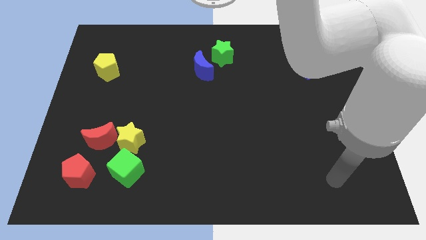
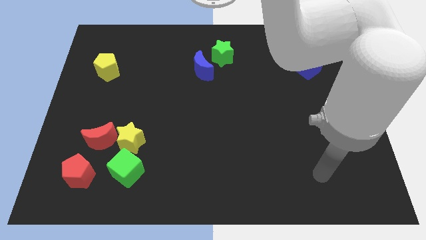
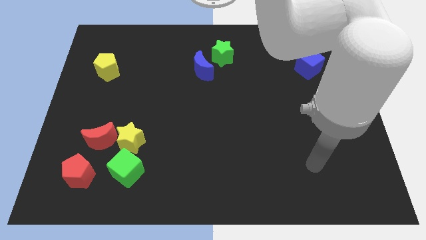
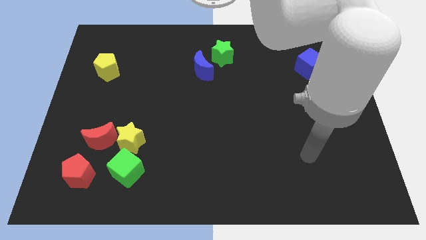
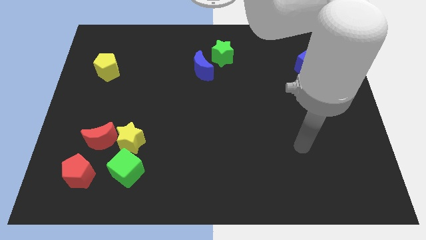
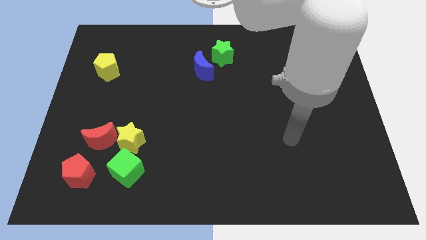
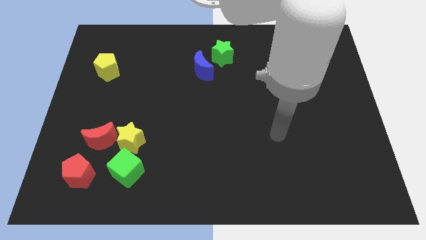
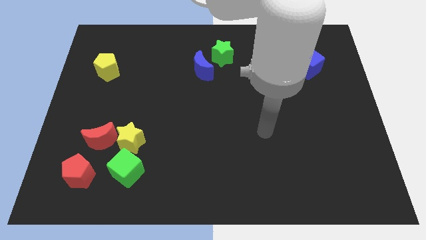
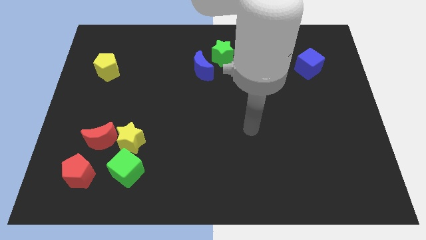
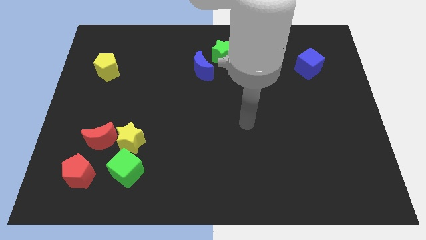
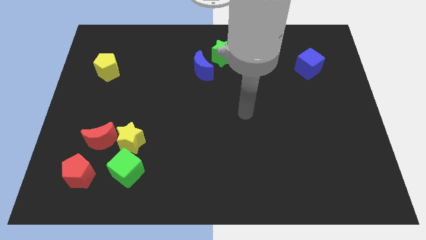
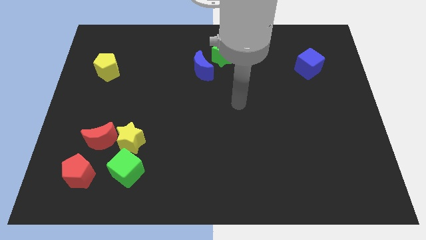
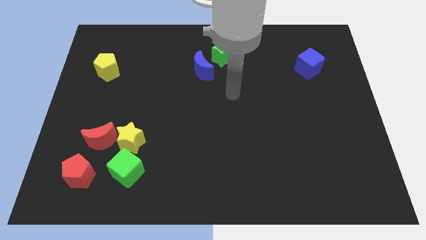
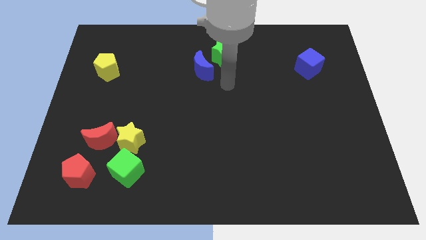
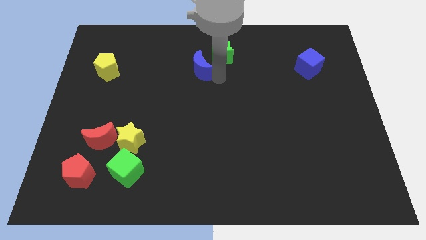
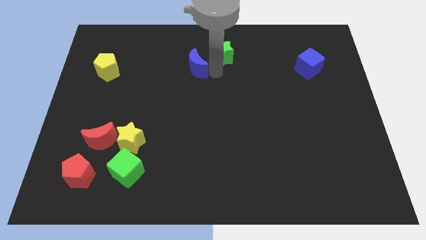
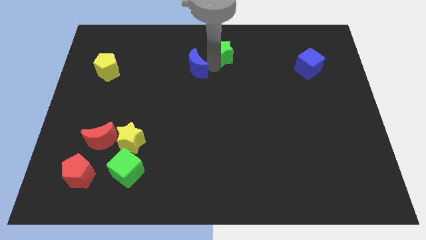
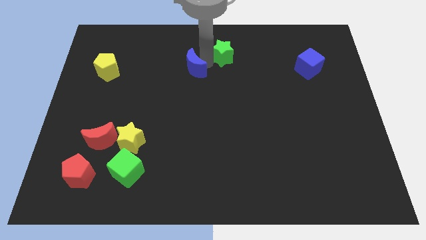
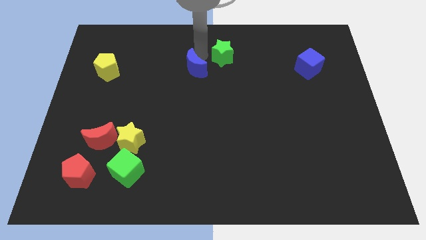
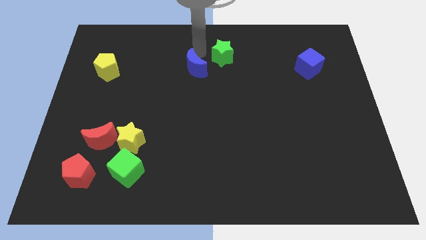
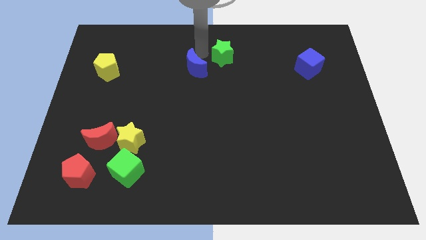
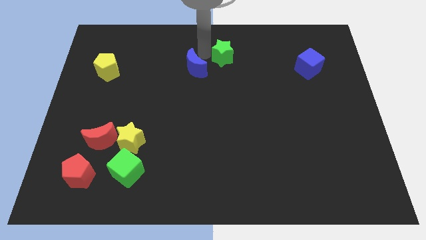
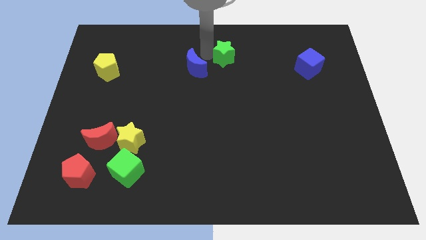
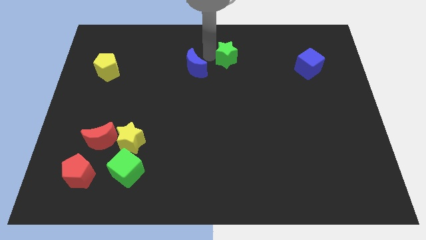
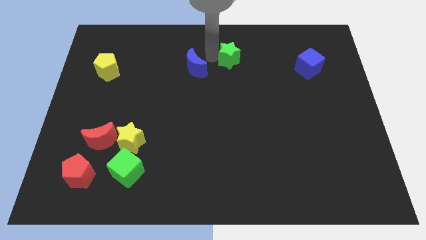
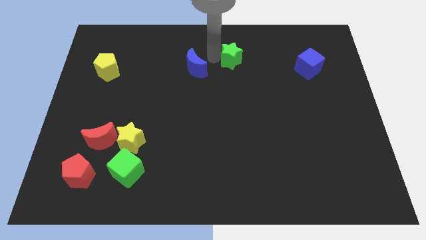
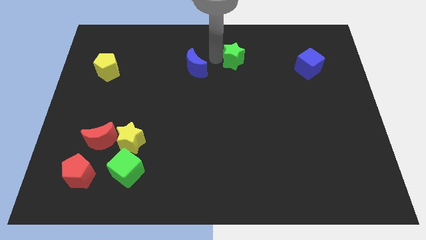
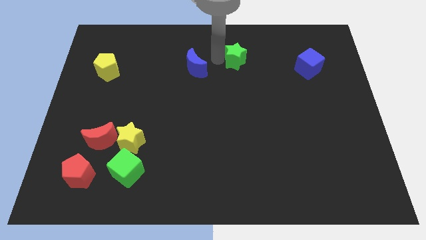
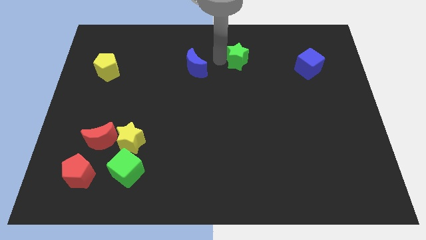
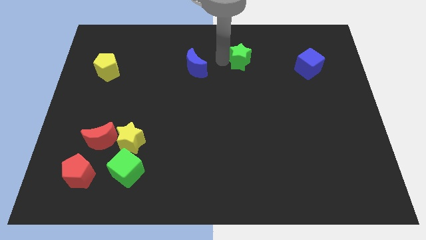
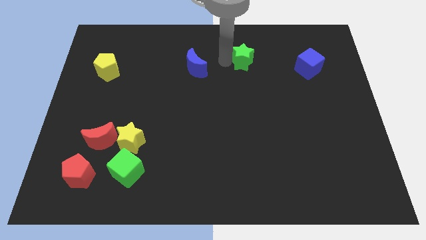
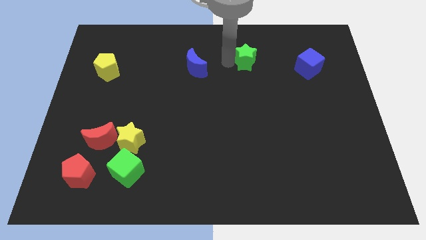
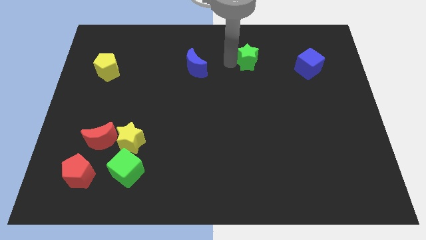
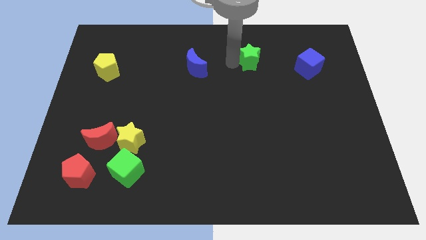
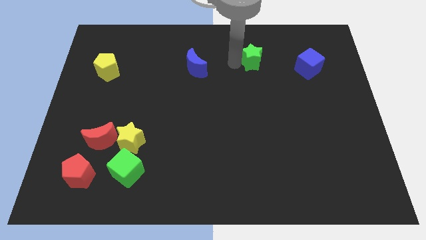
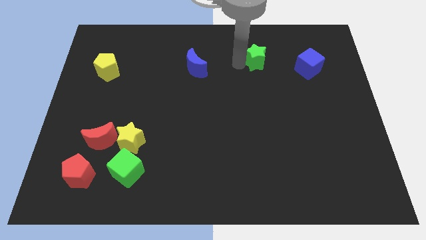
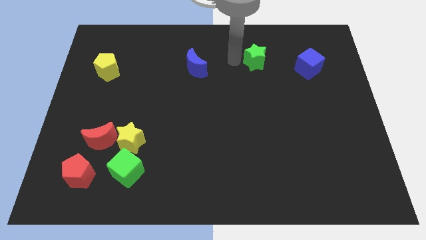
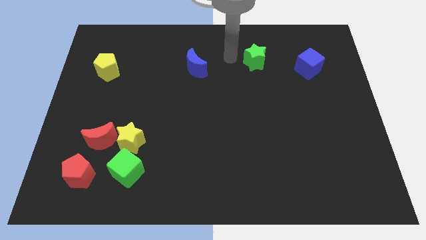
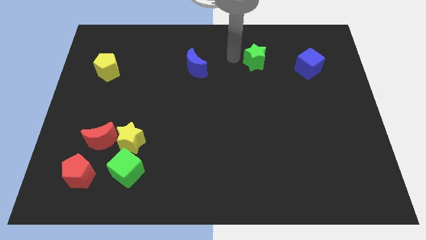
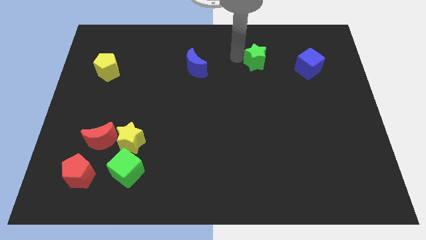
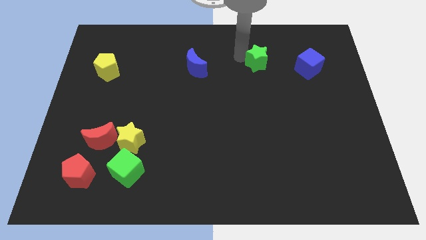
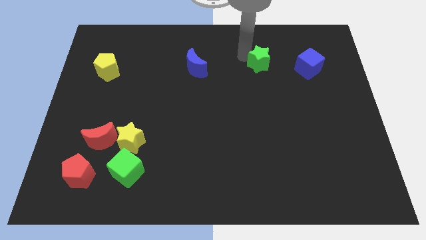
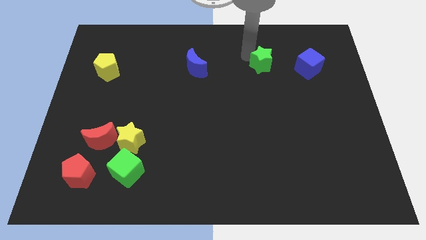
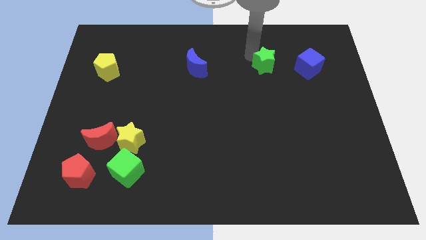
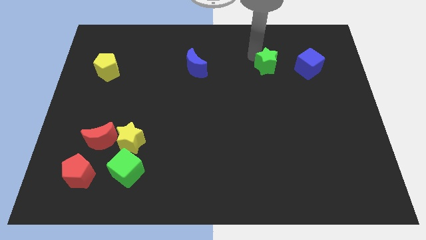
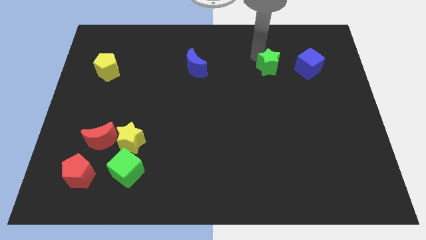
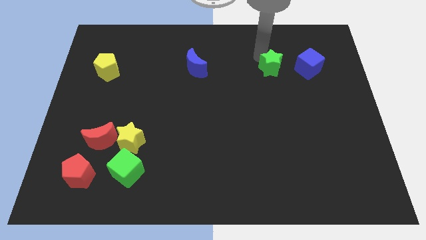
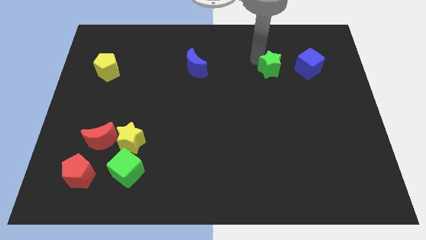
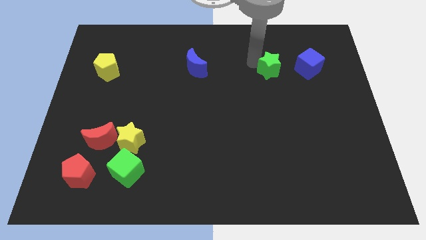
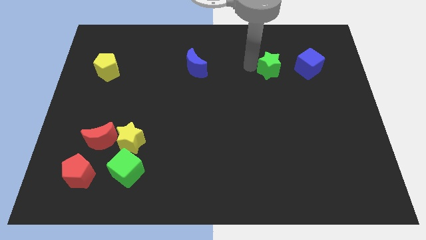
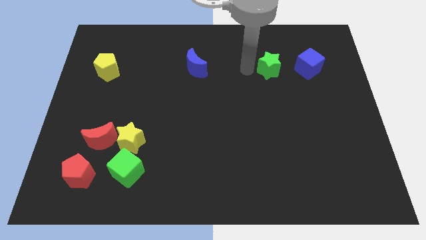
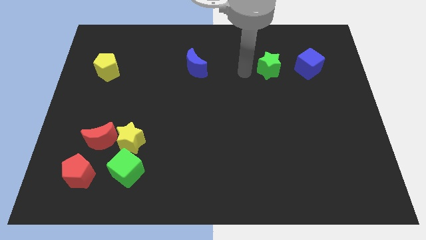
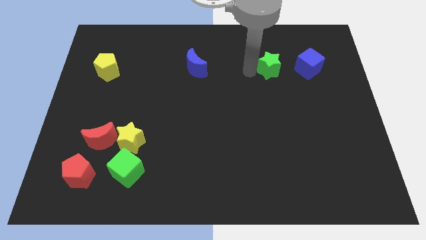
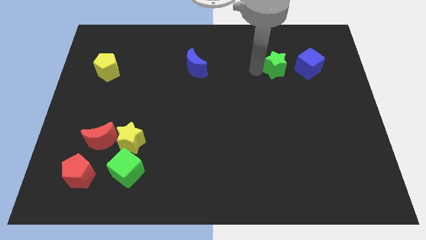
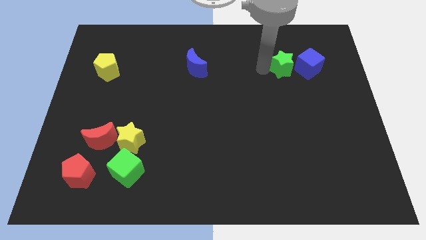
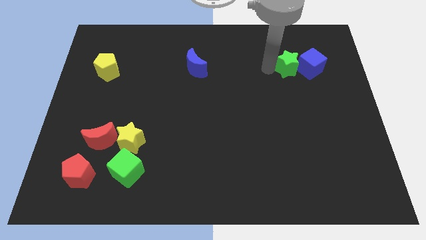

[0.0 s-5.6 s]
put the green star to the blue cube

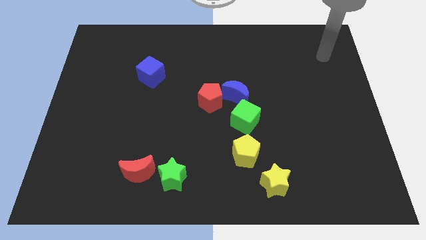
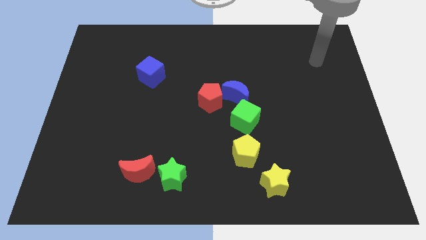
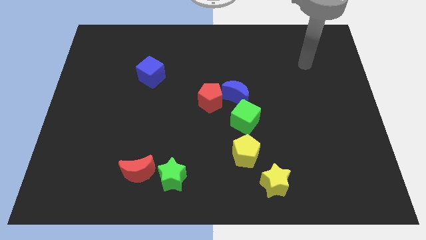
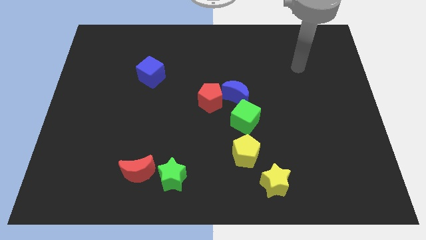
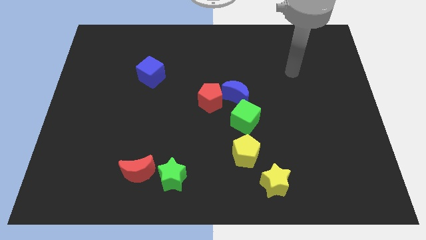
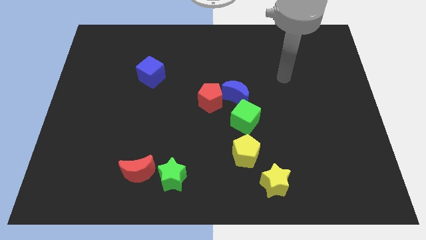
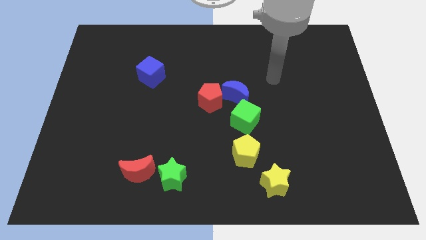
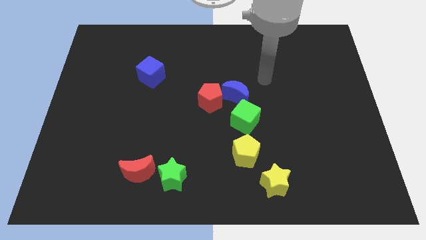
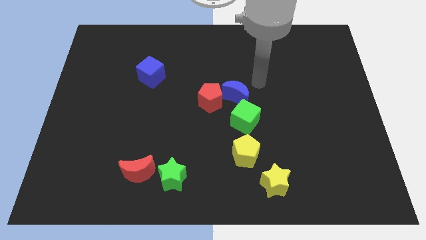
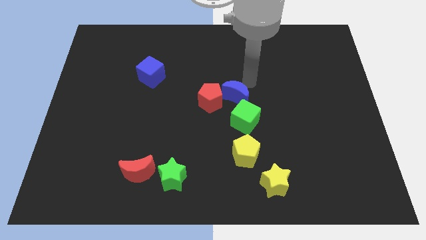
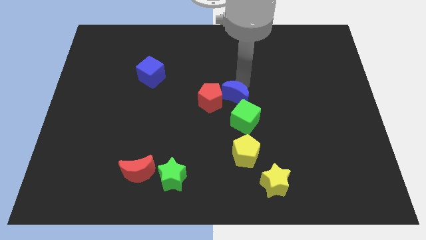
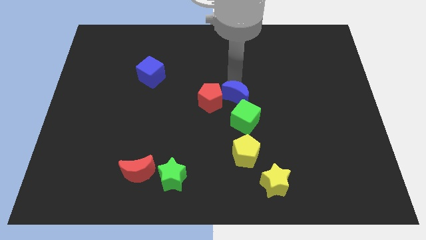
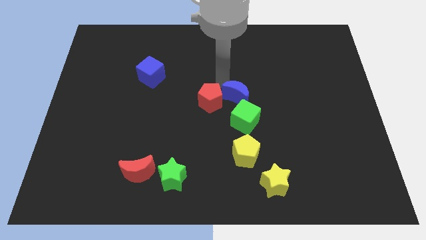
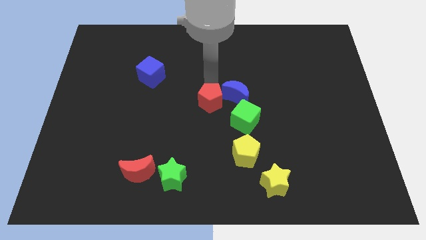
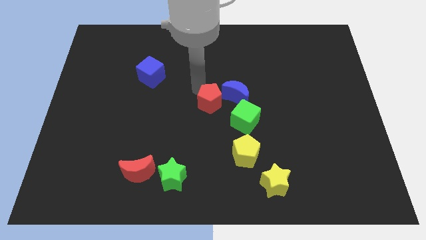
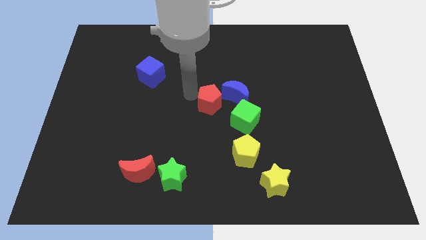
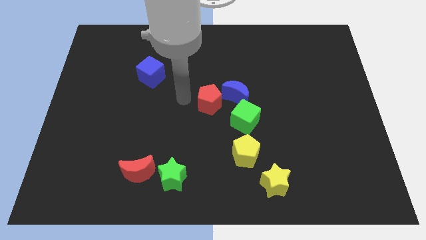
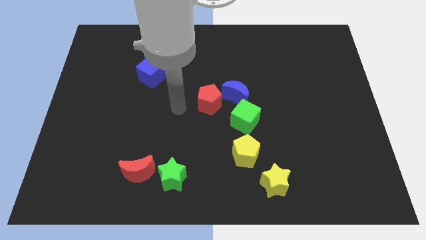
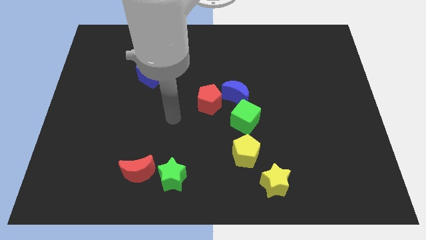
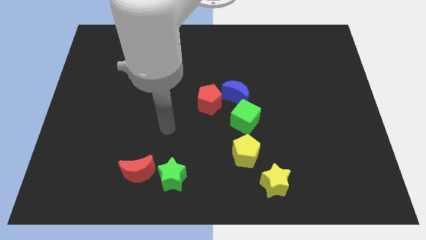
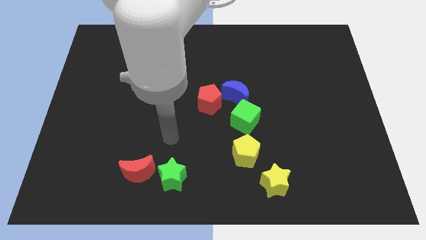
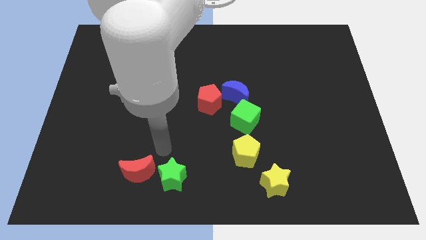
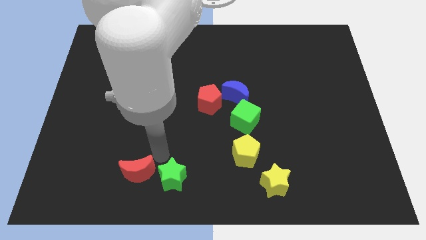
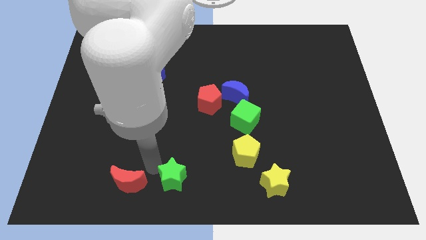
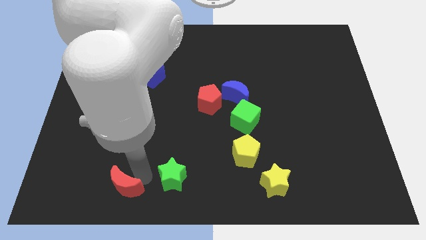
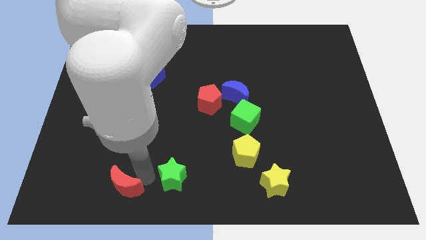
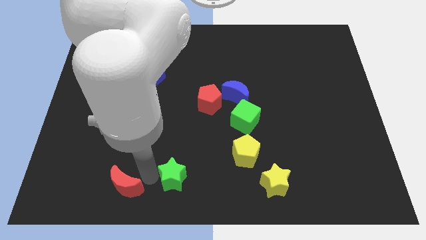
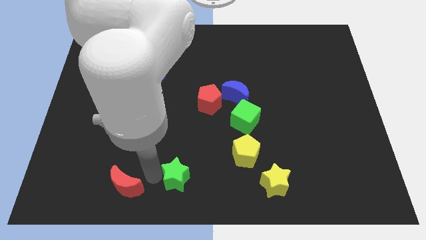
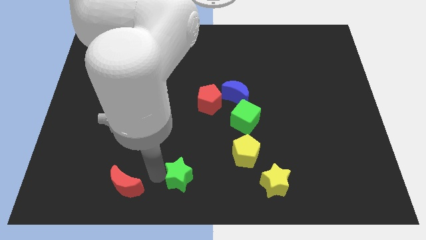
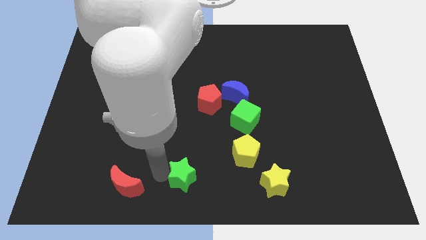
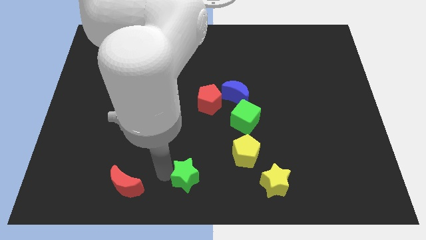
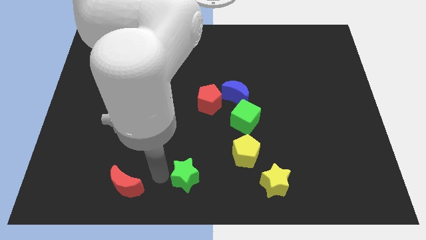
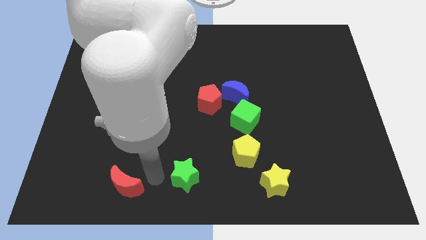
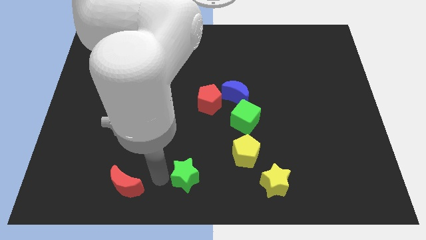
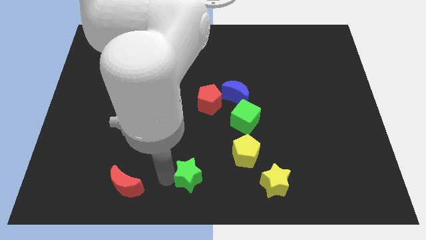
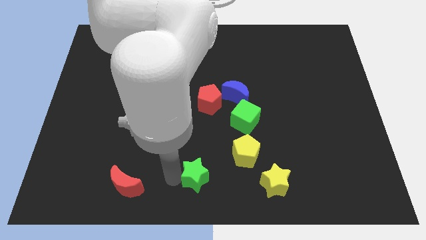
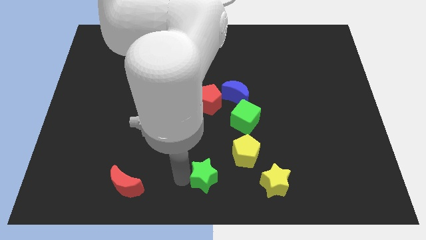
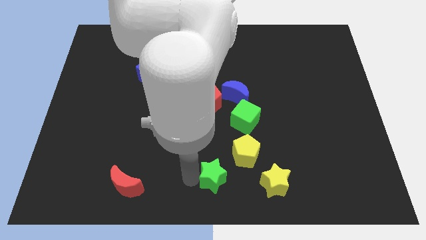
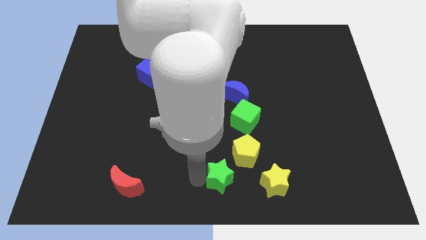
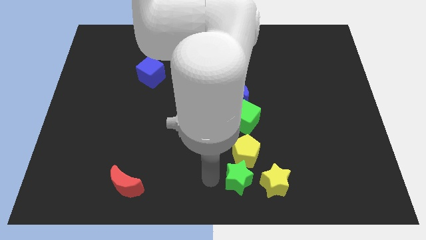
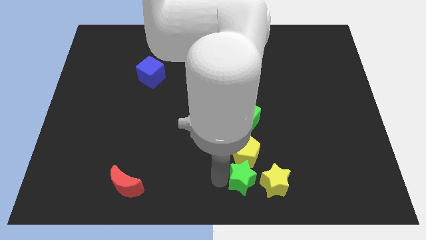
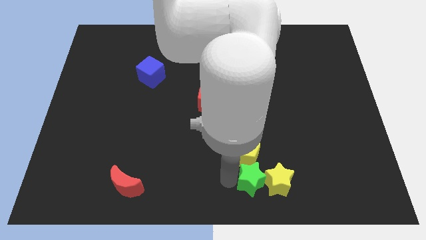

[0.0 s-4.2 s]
move the green star to the yellow star
